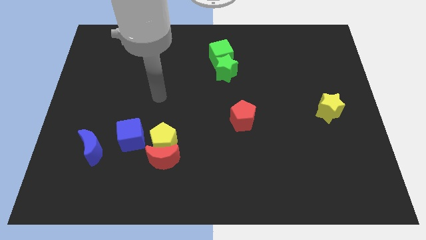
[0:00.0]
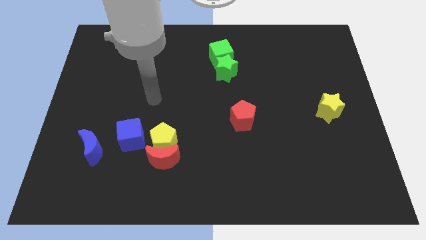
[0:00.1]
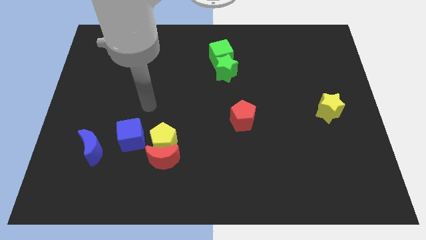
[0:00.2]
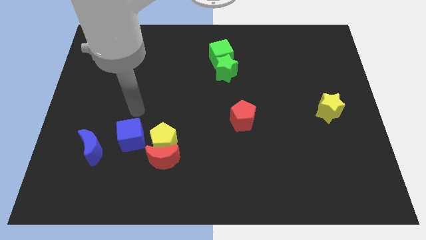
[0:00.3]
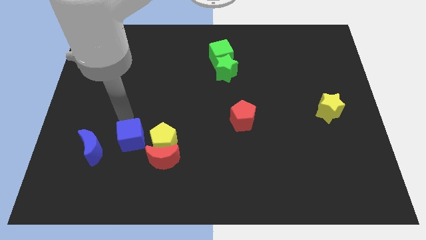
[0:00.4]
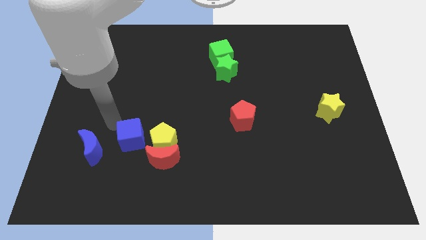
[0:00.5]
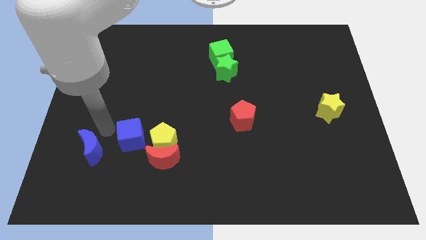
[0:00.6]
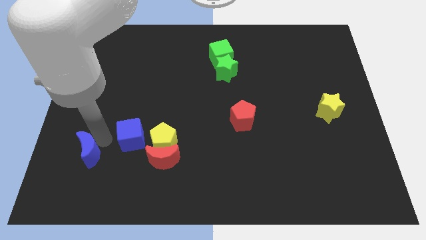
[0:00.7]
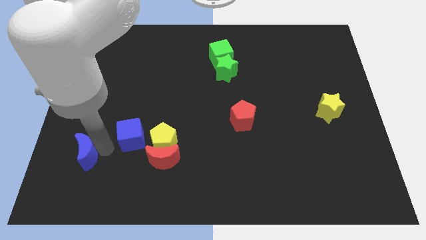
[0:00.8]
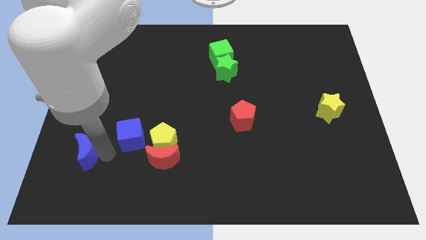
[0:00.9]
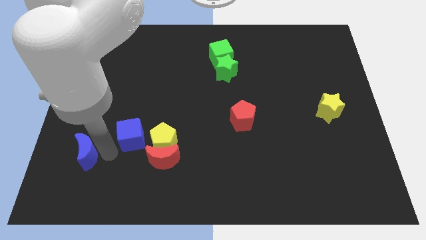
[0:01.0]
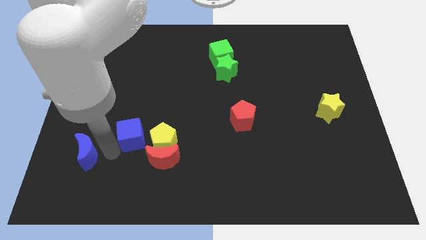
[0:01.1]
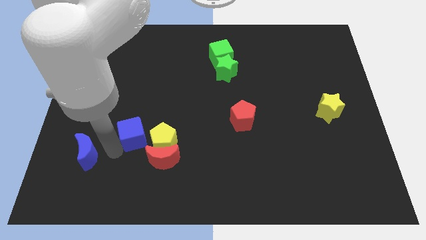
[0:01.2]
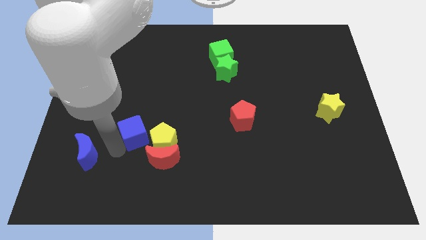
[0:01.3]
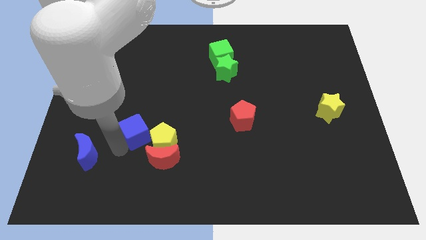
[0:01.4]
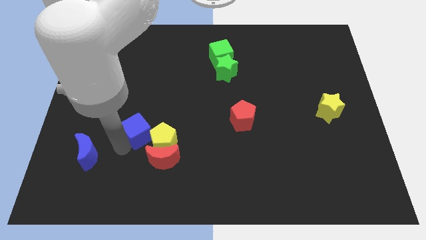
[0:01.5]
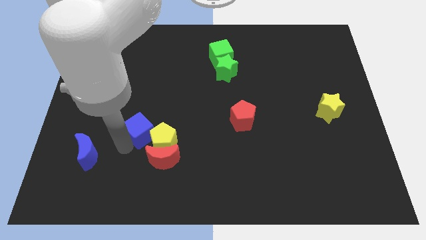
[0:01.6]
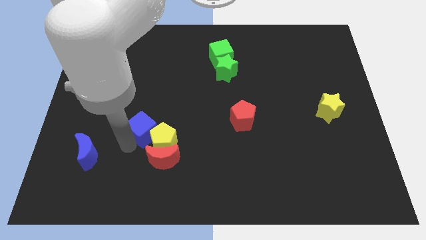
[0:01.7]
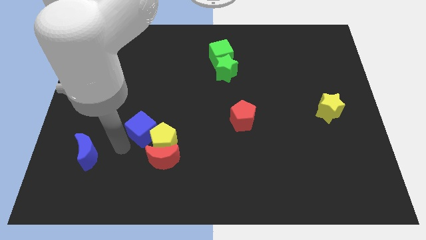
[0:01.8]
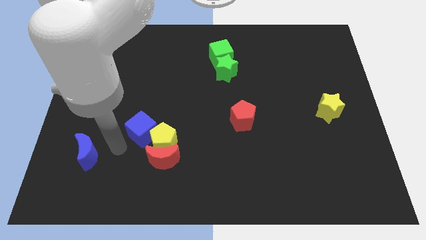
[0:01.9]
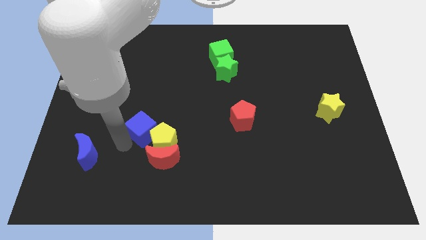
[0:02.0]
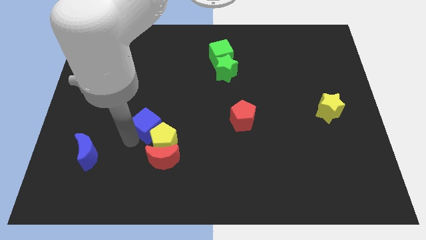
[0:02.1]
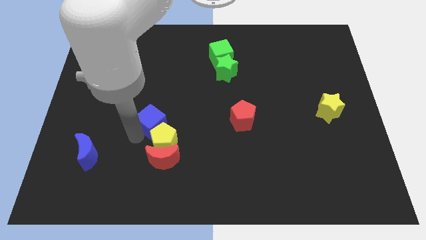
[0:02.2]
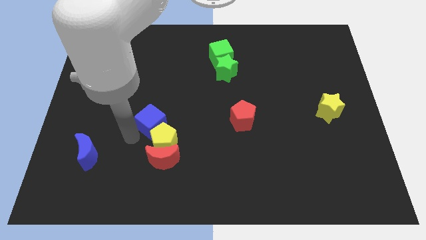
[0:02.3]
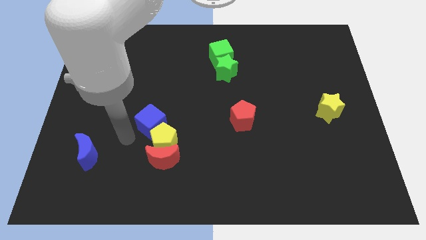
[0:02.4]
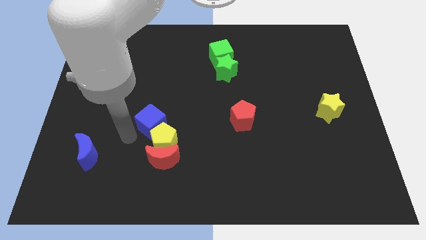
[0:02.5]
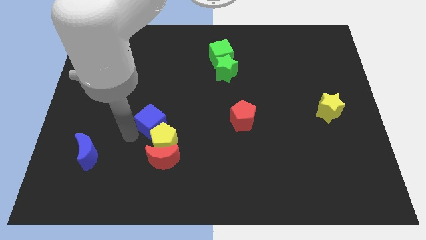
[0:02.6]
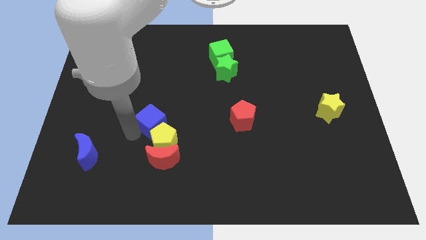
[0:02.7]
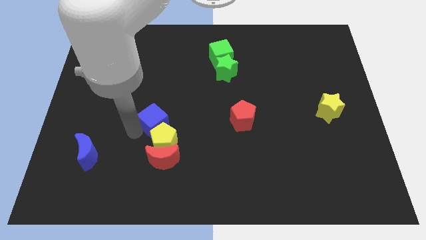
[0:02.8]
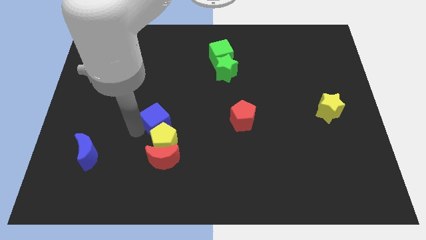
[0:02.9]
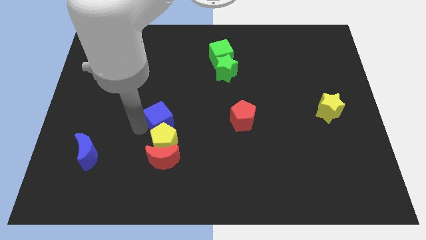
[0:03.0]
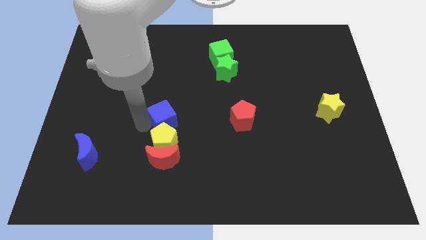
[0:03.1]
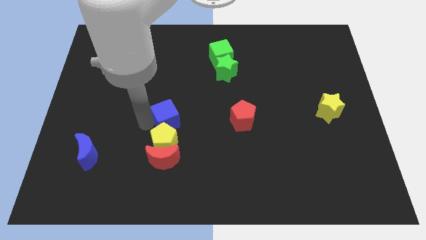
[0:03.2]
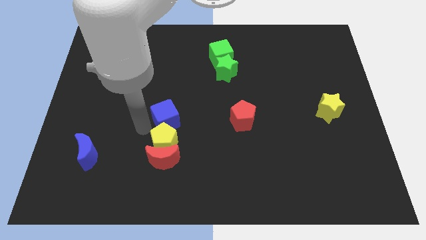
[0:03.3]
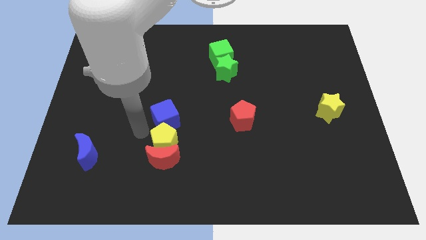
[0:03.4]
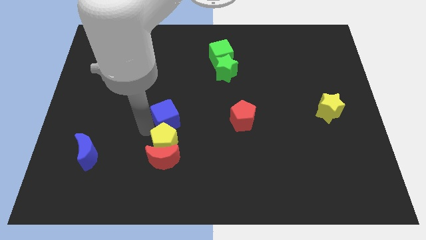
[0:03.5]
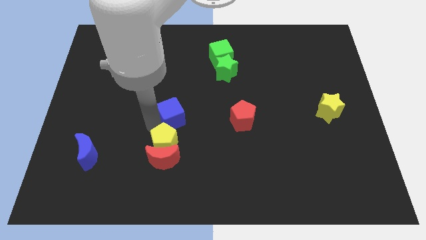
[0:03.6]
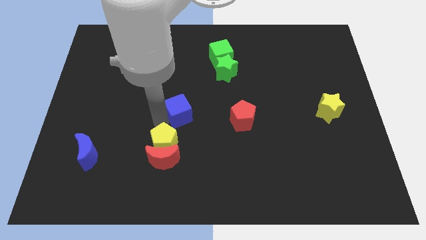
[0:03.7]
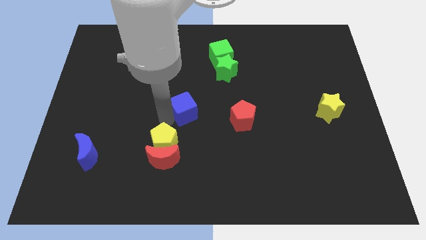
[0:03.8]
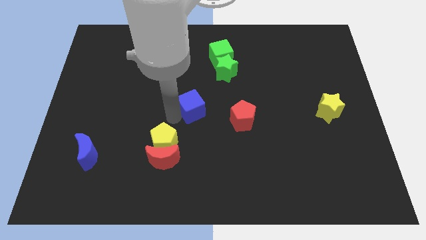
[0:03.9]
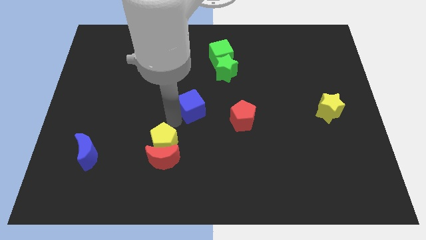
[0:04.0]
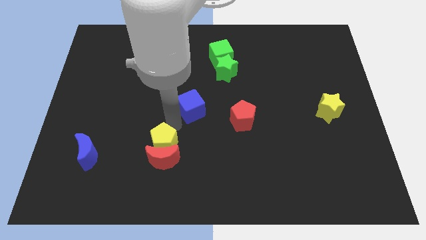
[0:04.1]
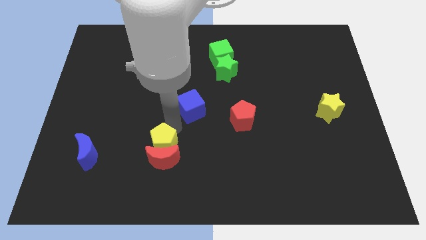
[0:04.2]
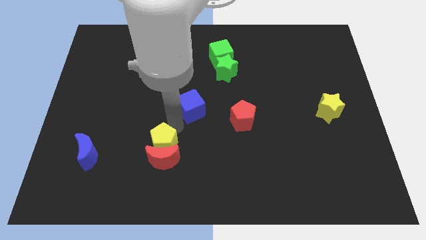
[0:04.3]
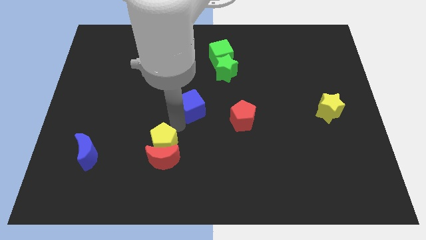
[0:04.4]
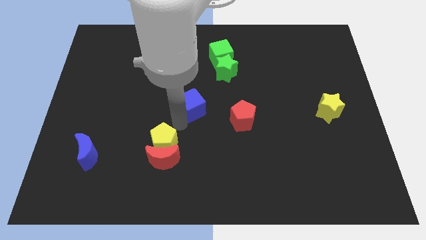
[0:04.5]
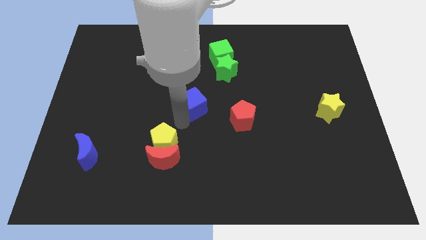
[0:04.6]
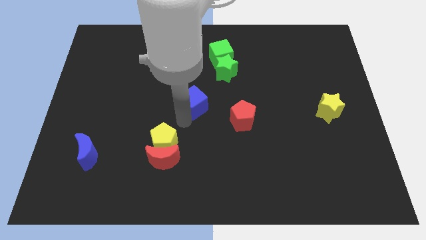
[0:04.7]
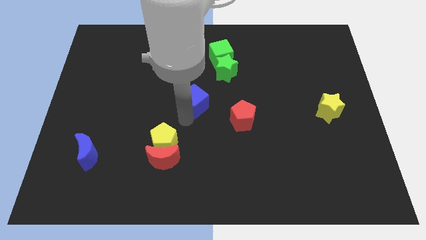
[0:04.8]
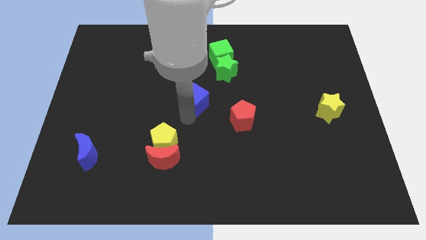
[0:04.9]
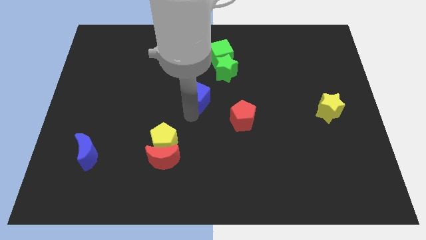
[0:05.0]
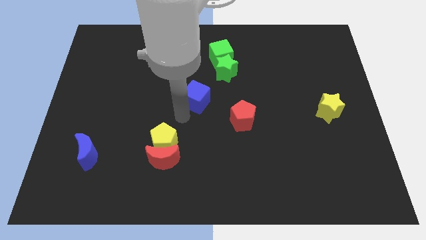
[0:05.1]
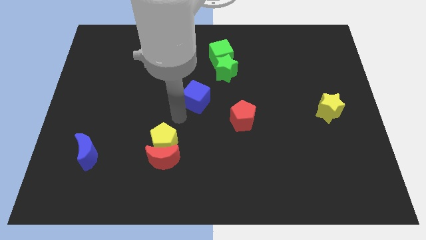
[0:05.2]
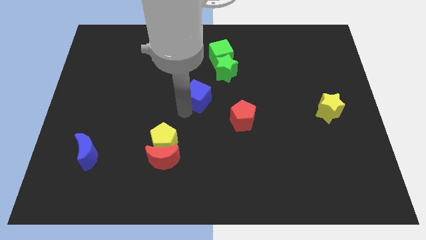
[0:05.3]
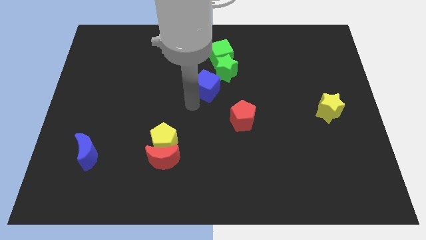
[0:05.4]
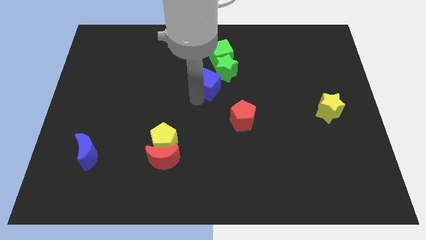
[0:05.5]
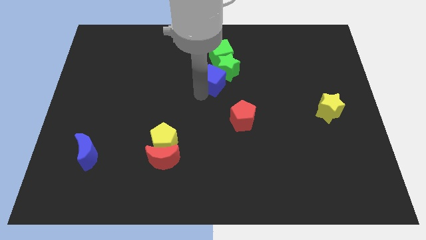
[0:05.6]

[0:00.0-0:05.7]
move the blue cube to the green star

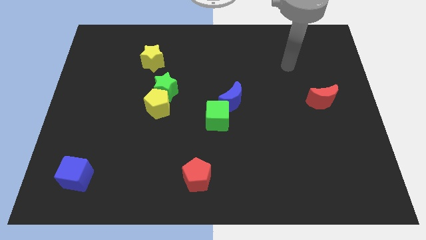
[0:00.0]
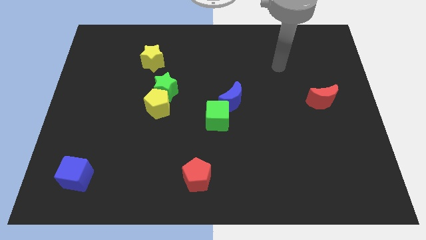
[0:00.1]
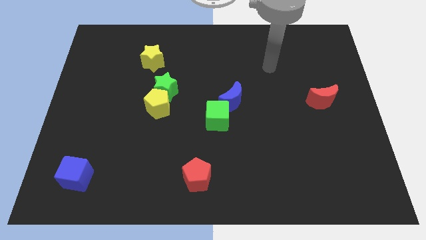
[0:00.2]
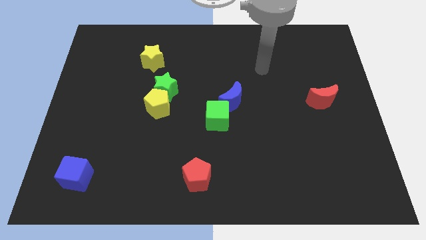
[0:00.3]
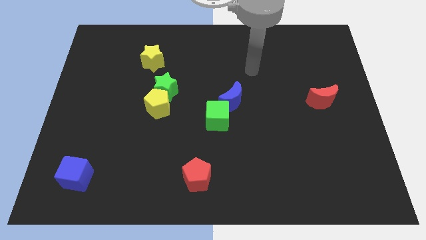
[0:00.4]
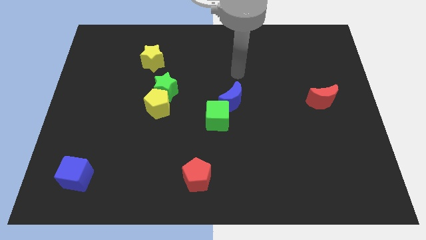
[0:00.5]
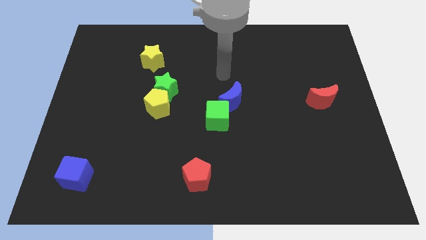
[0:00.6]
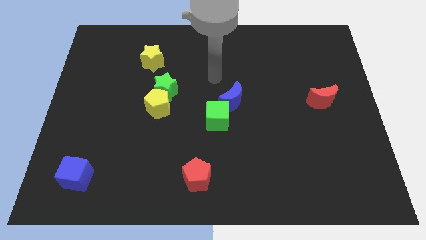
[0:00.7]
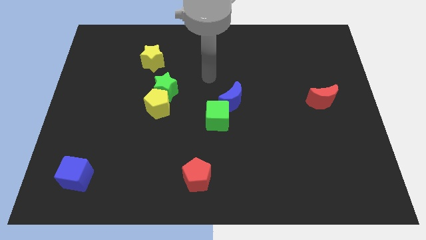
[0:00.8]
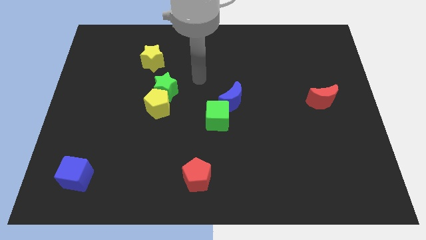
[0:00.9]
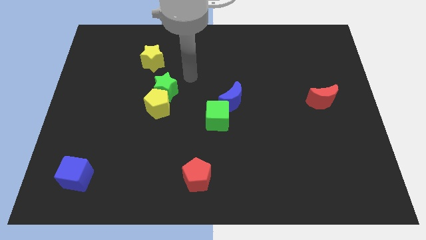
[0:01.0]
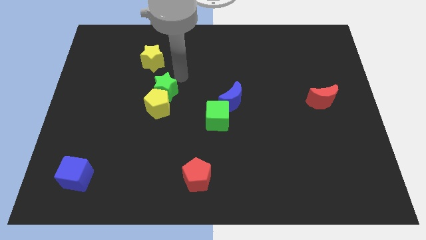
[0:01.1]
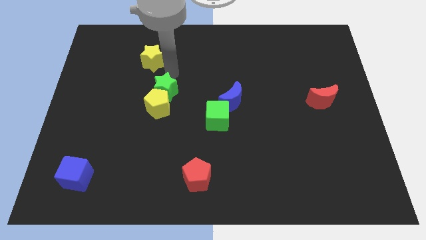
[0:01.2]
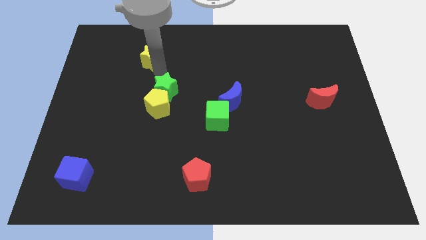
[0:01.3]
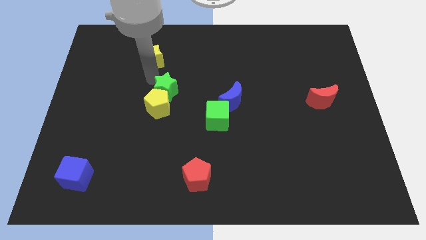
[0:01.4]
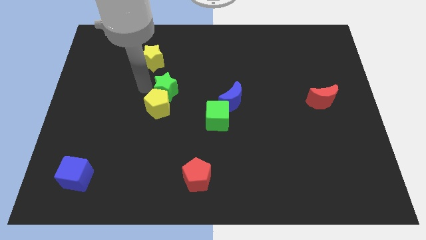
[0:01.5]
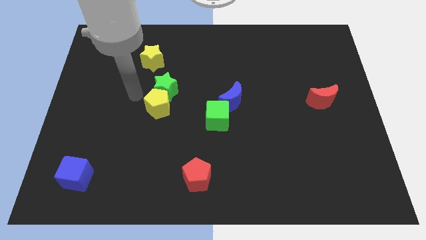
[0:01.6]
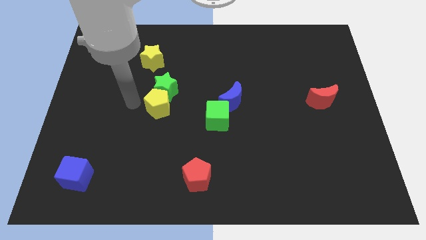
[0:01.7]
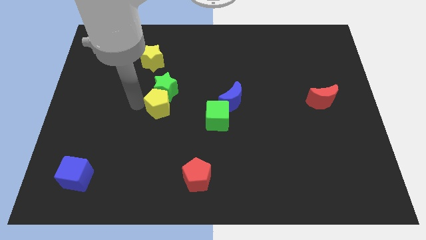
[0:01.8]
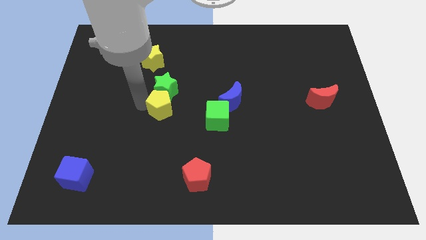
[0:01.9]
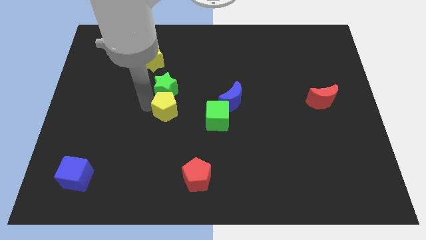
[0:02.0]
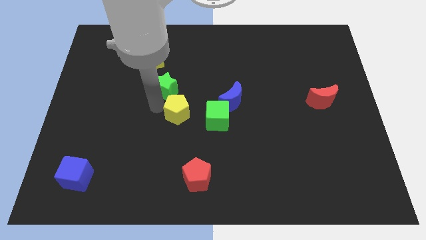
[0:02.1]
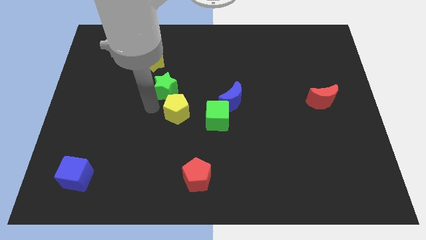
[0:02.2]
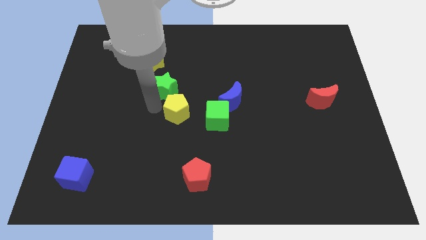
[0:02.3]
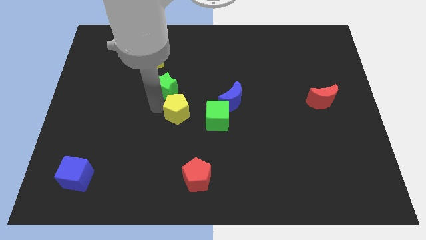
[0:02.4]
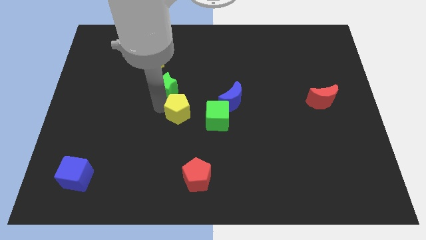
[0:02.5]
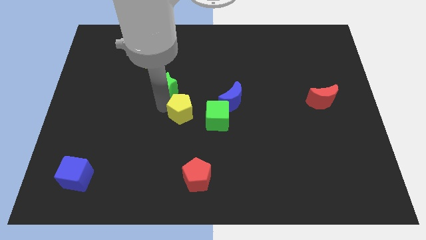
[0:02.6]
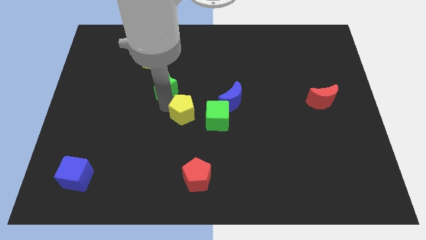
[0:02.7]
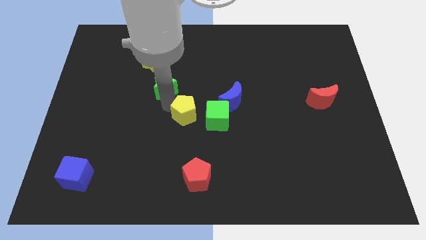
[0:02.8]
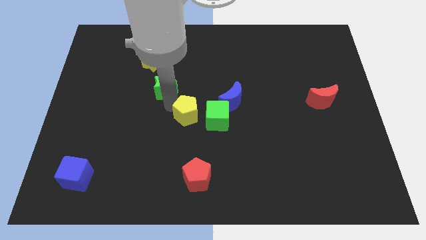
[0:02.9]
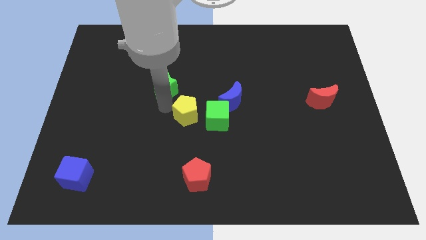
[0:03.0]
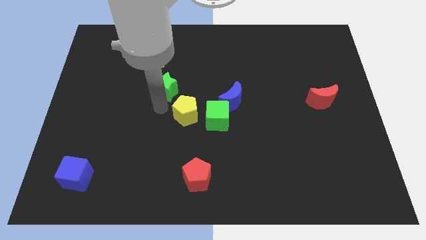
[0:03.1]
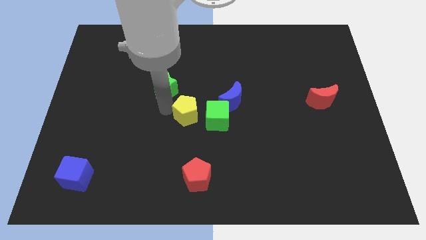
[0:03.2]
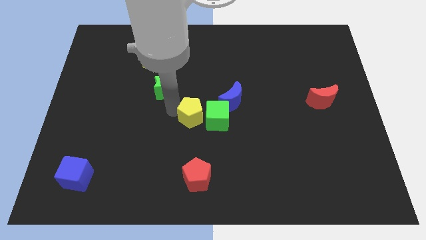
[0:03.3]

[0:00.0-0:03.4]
put the yellow pentagon towards the green cube
